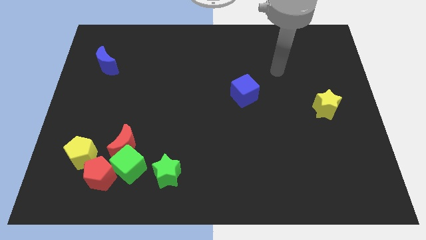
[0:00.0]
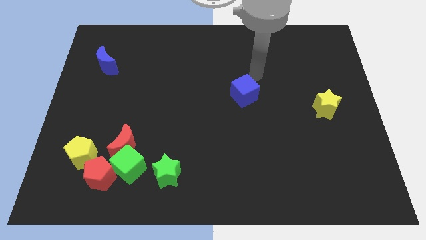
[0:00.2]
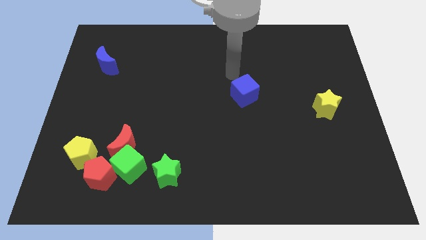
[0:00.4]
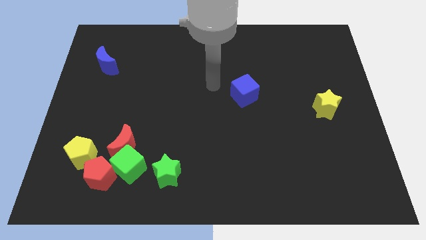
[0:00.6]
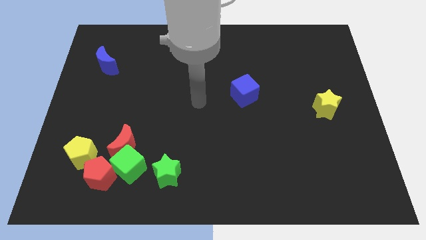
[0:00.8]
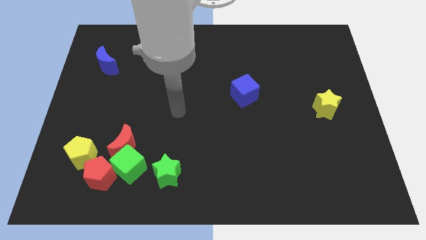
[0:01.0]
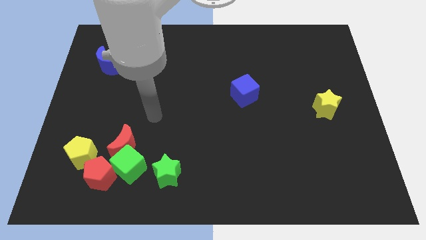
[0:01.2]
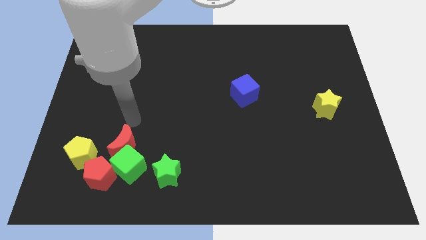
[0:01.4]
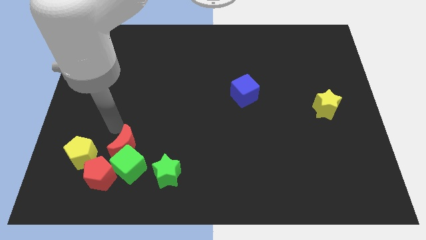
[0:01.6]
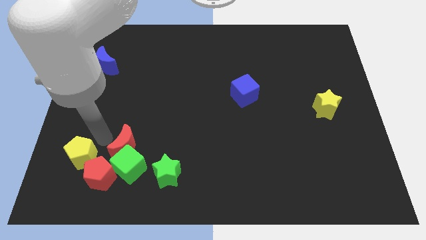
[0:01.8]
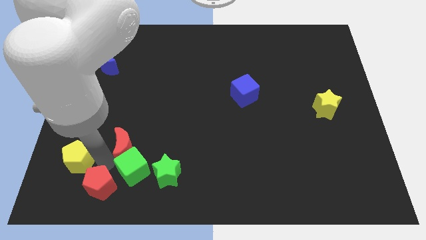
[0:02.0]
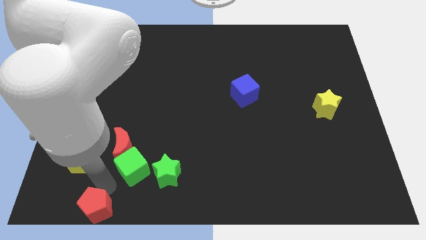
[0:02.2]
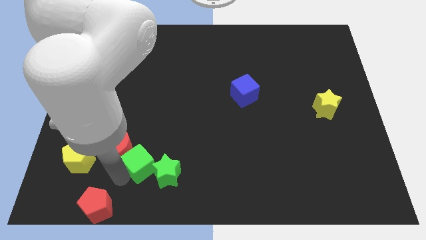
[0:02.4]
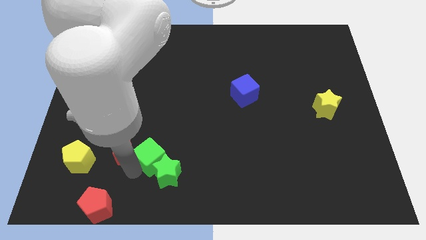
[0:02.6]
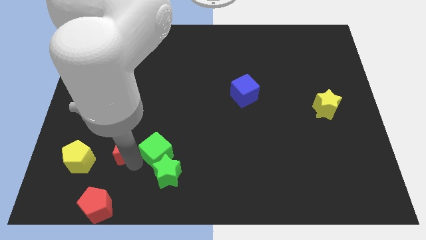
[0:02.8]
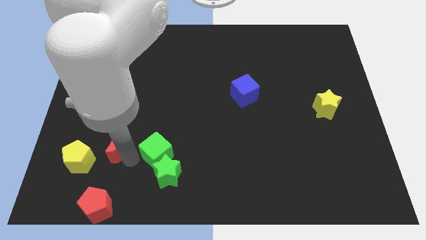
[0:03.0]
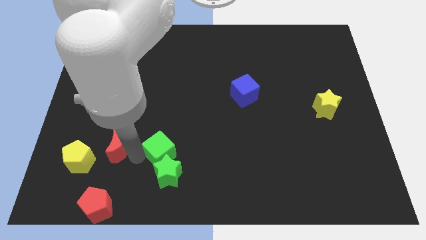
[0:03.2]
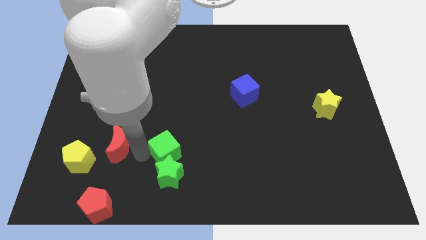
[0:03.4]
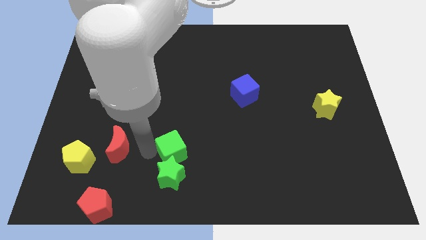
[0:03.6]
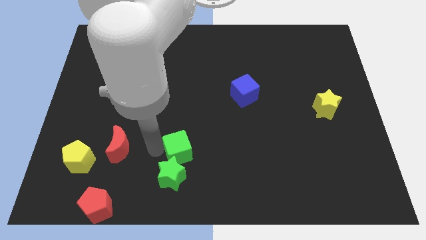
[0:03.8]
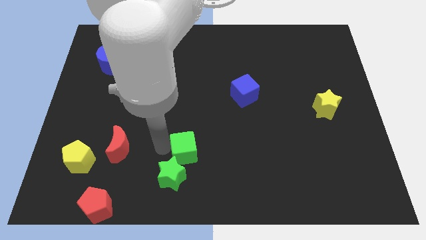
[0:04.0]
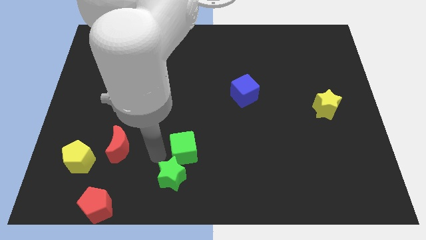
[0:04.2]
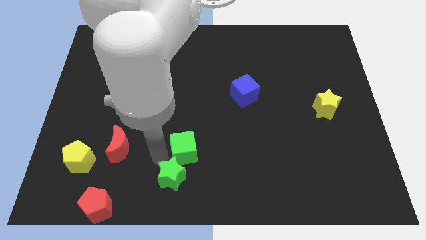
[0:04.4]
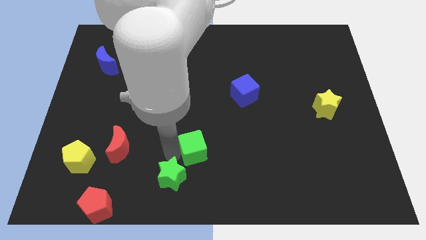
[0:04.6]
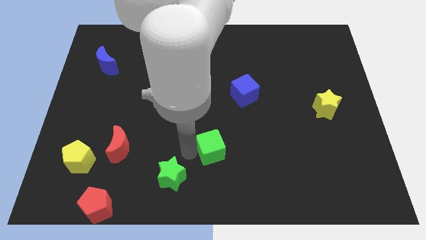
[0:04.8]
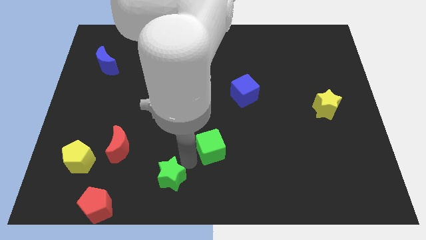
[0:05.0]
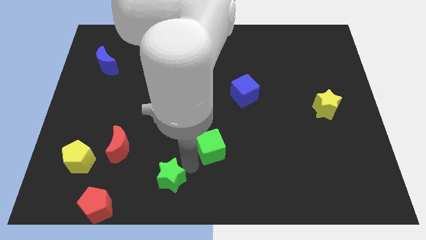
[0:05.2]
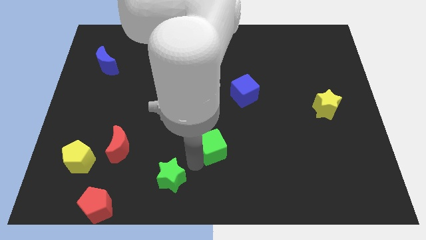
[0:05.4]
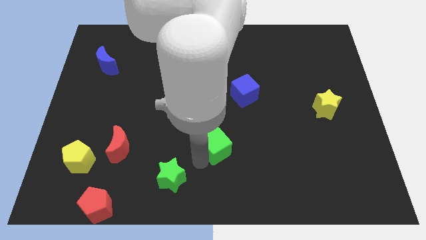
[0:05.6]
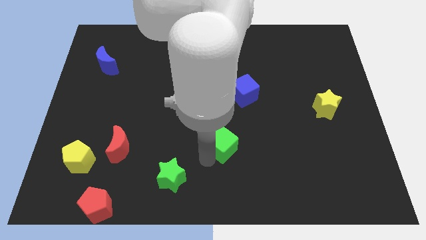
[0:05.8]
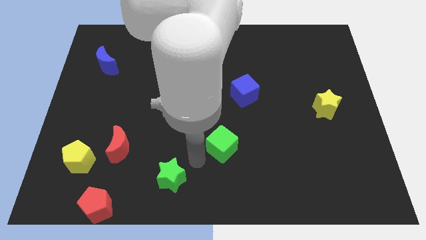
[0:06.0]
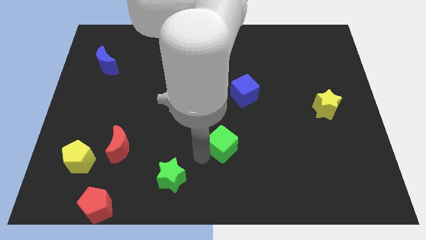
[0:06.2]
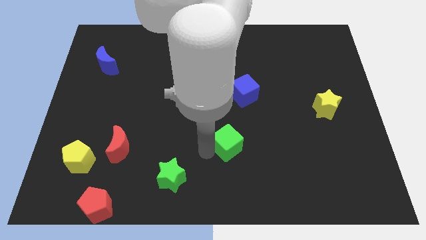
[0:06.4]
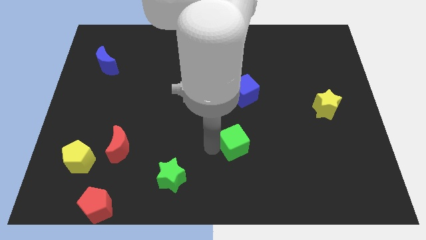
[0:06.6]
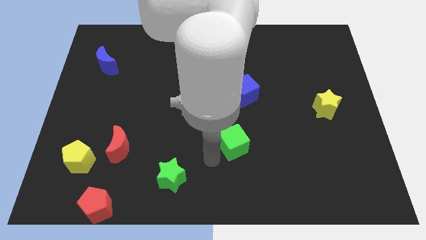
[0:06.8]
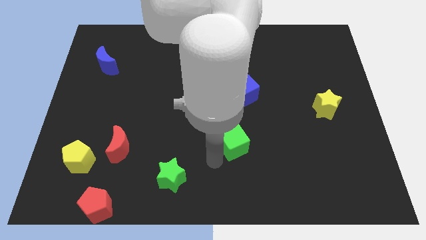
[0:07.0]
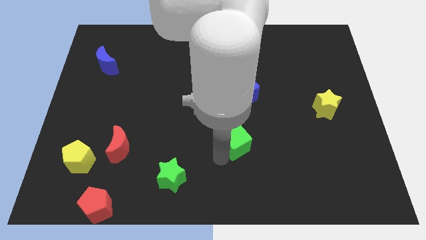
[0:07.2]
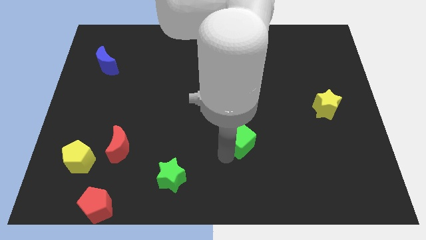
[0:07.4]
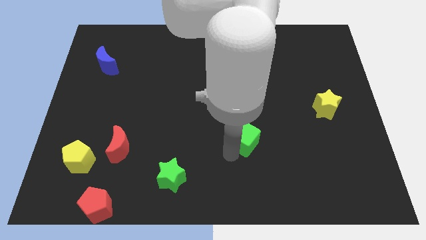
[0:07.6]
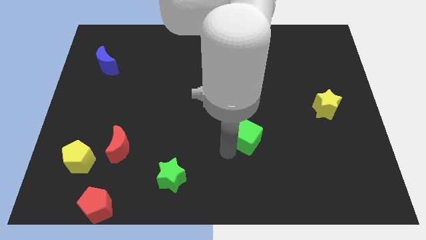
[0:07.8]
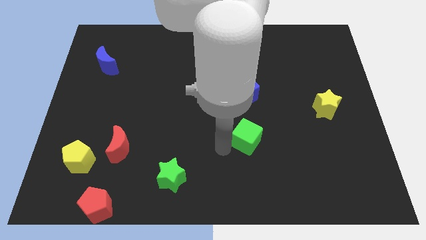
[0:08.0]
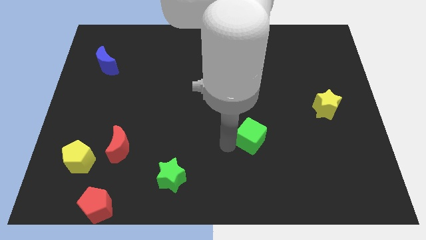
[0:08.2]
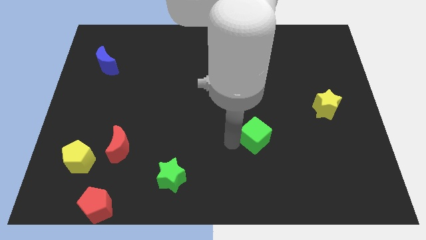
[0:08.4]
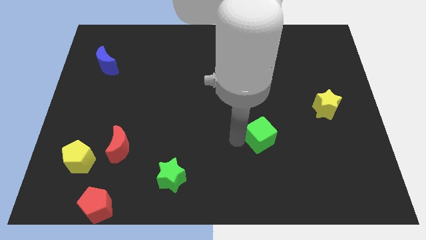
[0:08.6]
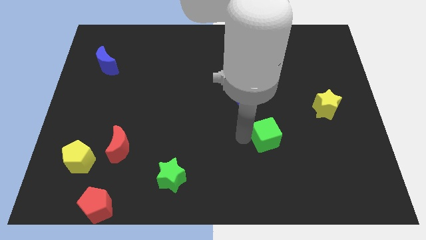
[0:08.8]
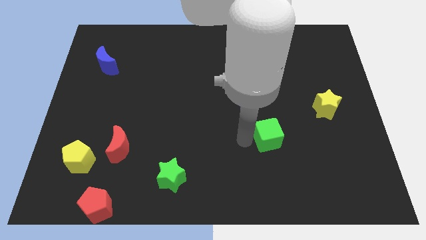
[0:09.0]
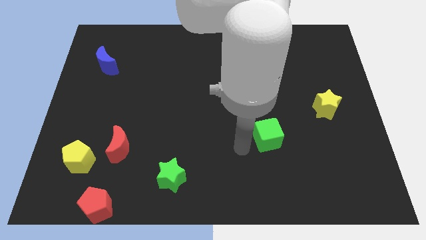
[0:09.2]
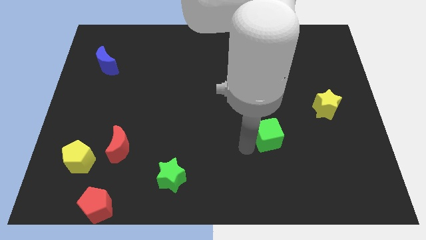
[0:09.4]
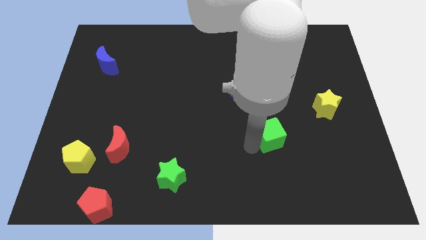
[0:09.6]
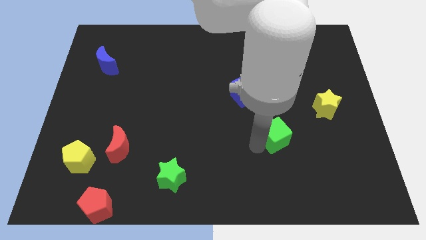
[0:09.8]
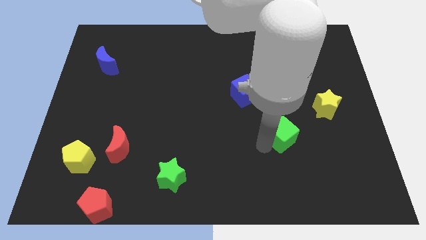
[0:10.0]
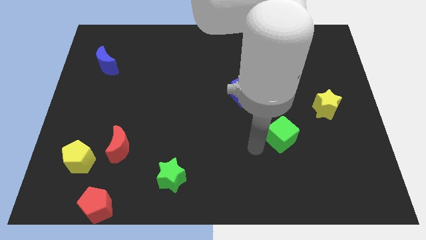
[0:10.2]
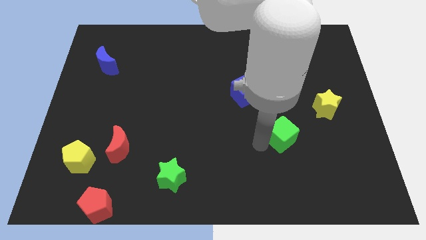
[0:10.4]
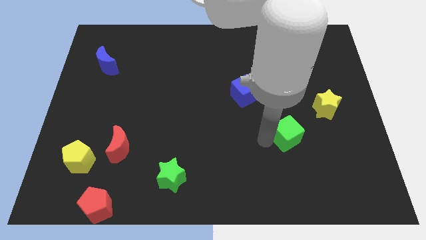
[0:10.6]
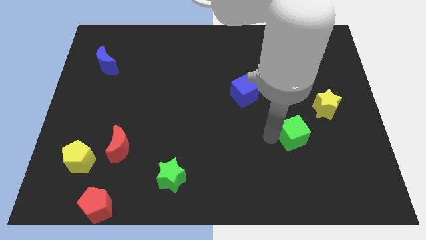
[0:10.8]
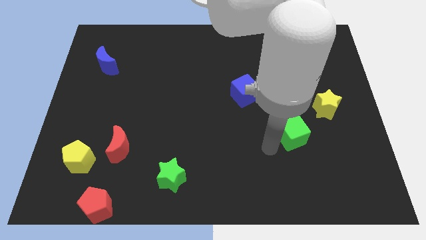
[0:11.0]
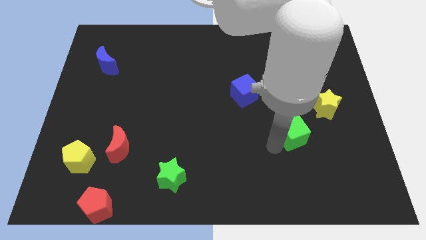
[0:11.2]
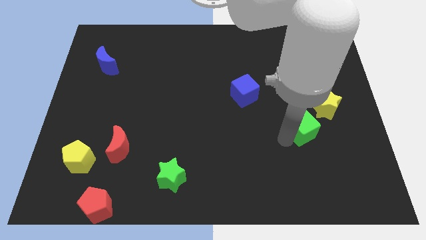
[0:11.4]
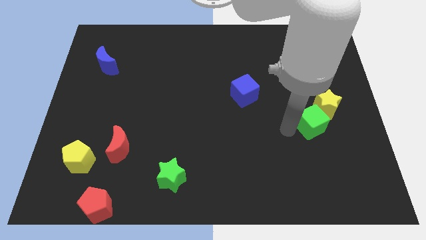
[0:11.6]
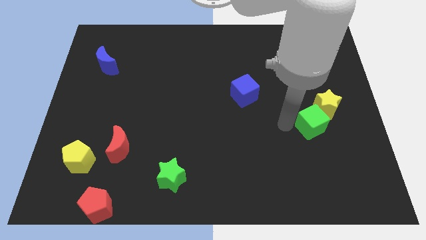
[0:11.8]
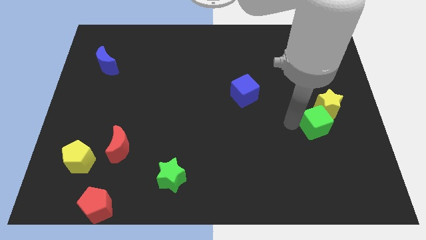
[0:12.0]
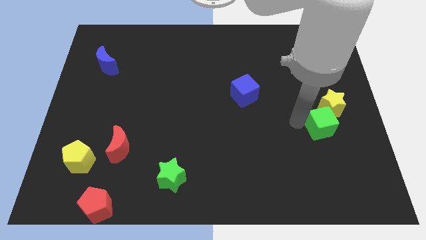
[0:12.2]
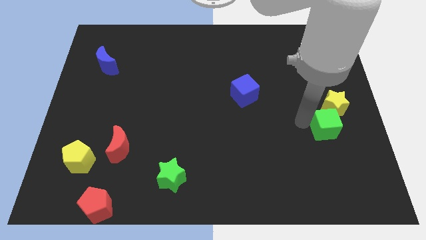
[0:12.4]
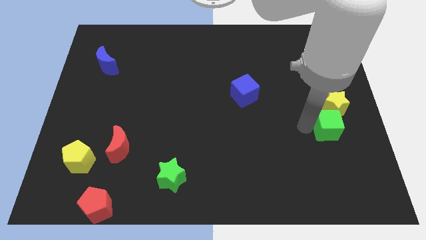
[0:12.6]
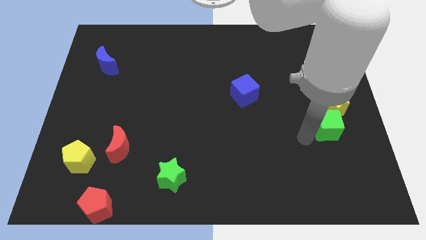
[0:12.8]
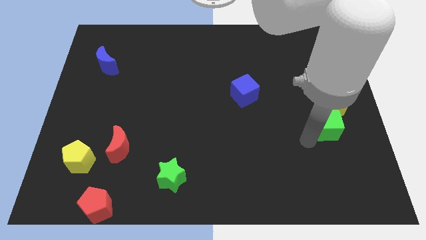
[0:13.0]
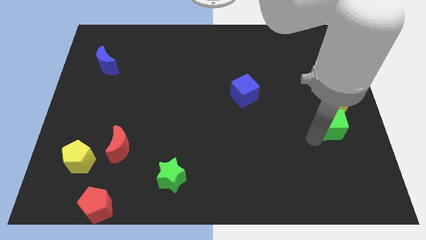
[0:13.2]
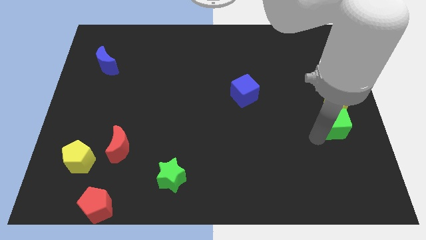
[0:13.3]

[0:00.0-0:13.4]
move the green cube to the center right
